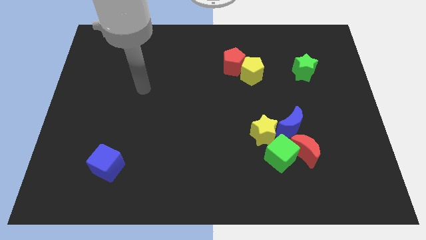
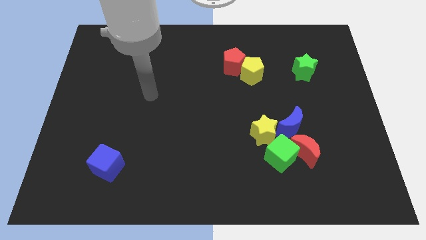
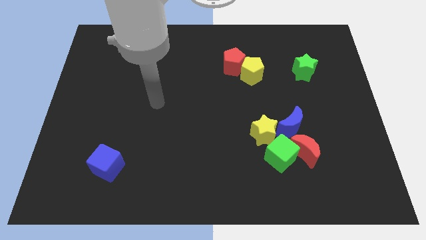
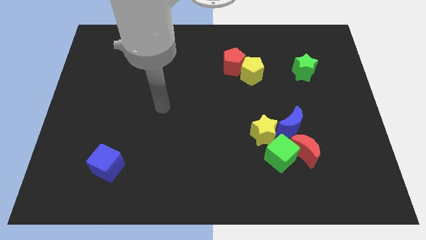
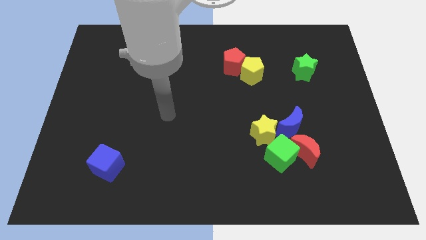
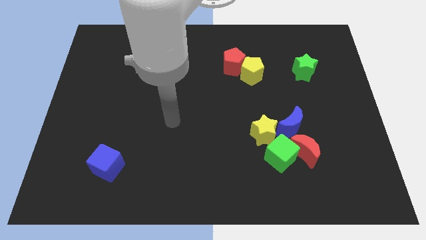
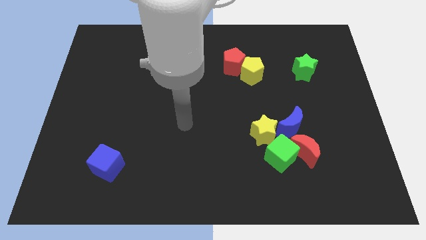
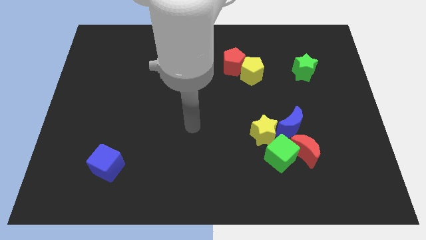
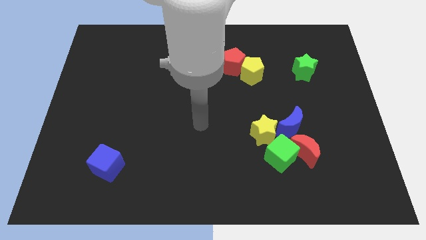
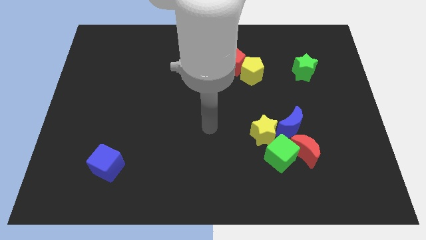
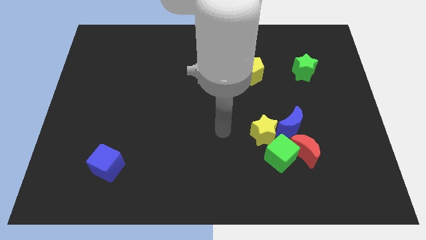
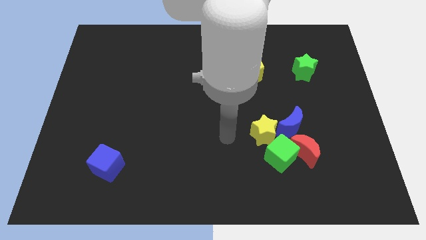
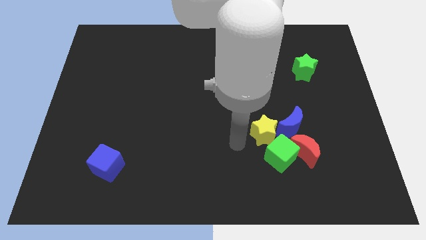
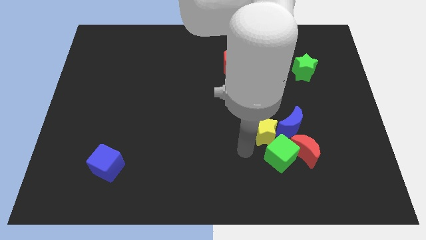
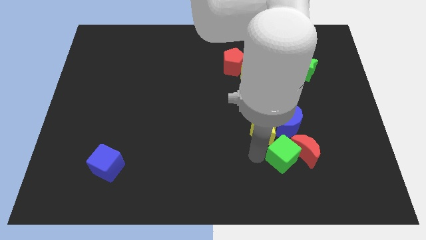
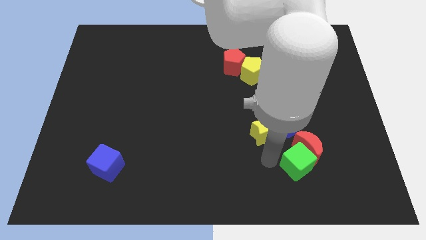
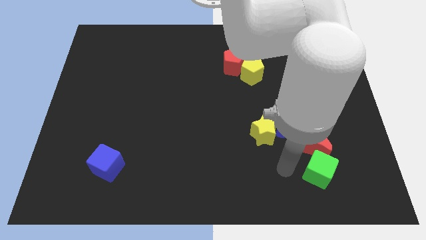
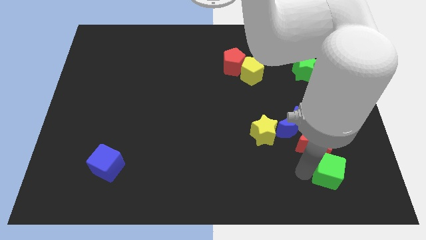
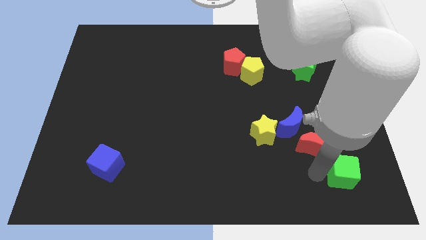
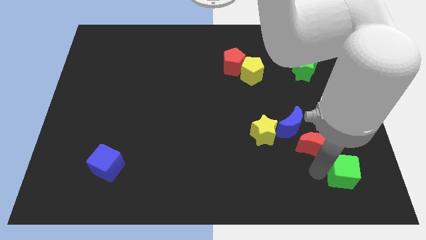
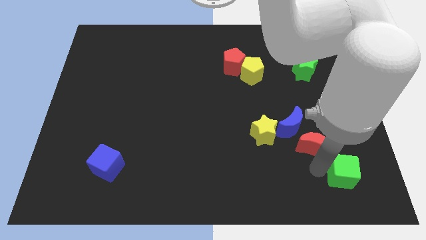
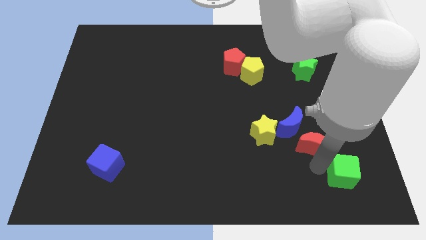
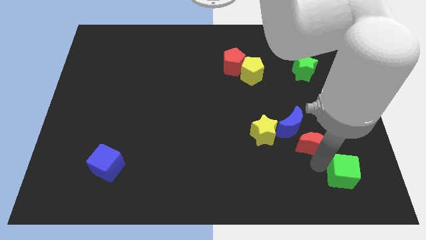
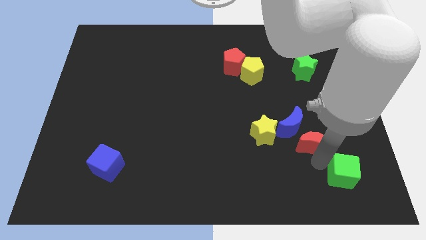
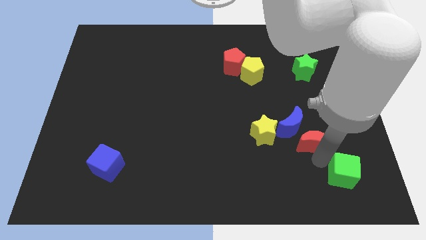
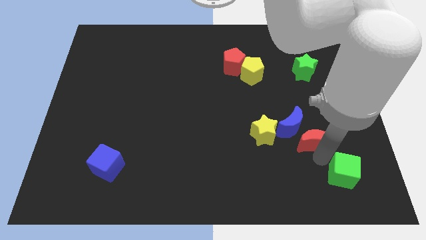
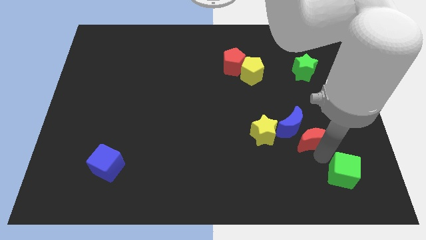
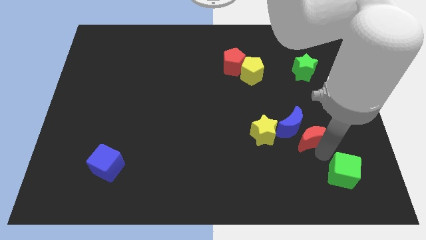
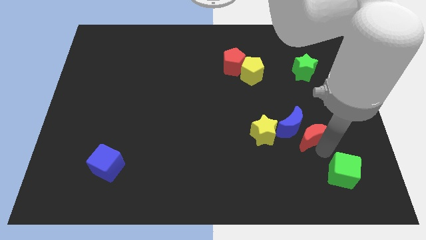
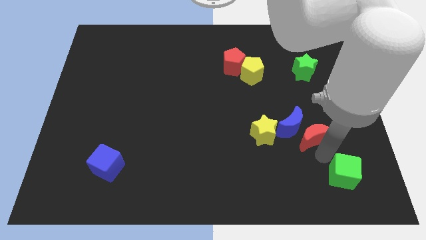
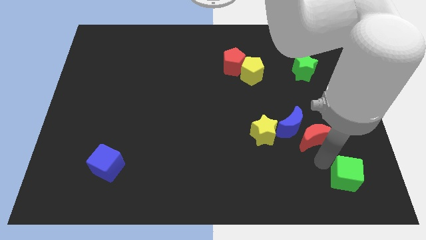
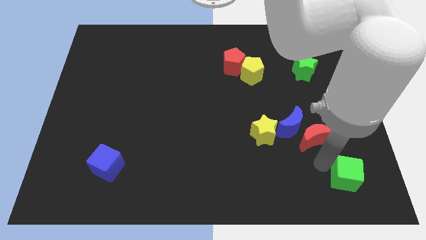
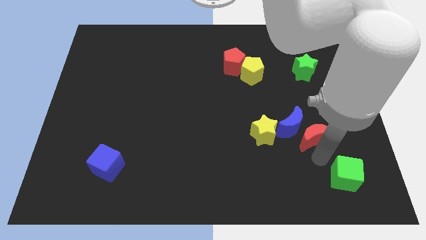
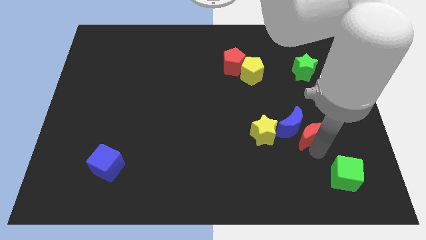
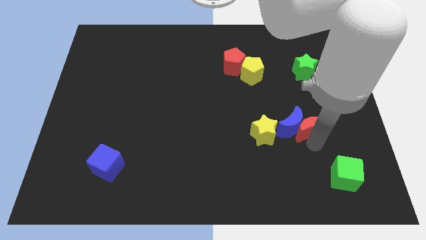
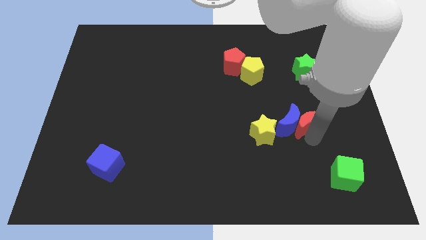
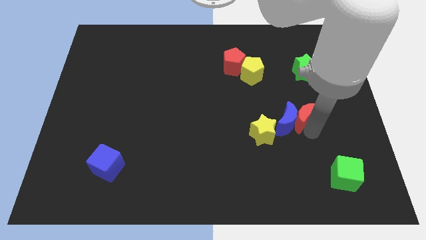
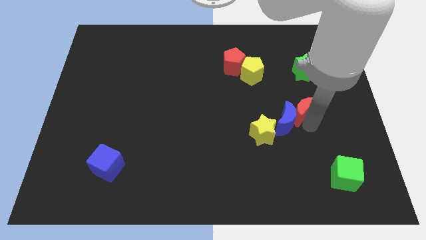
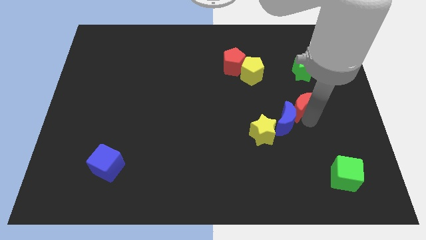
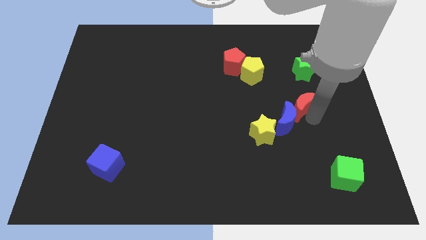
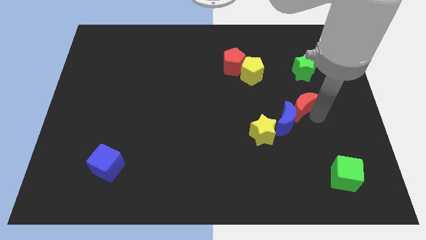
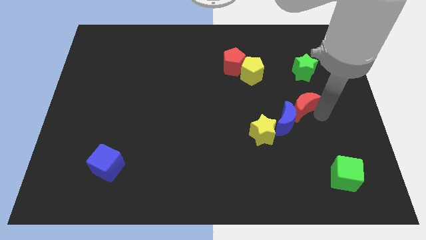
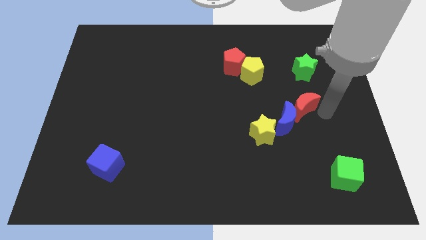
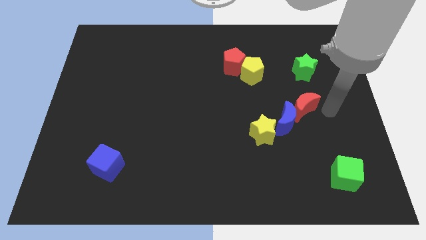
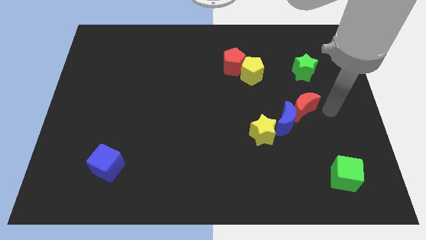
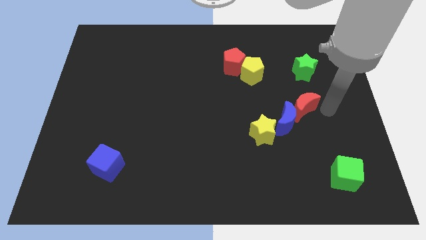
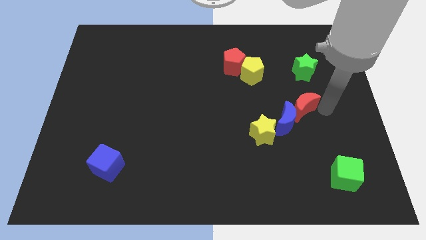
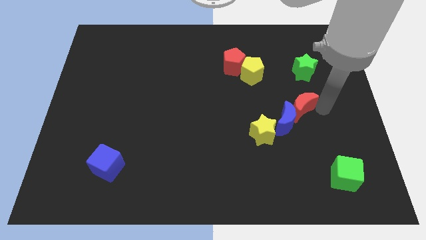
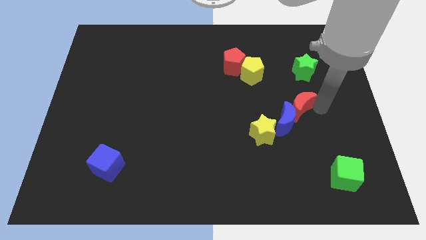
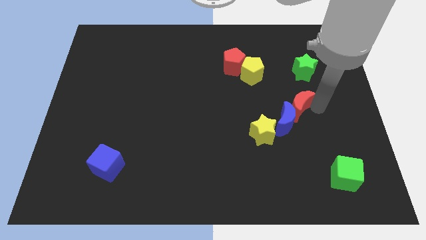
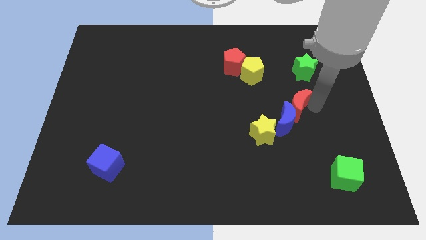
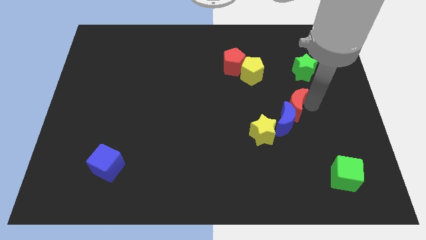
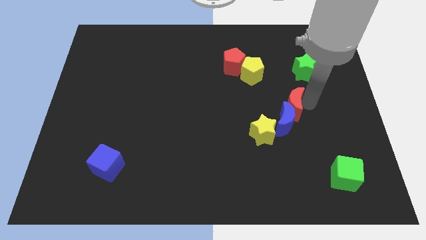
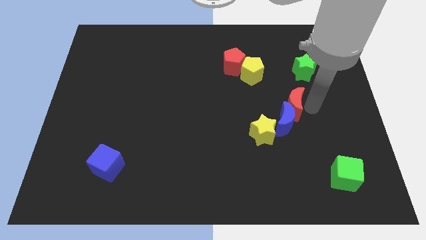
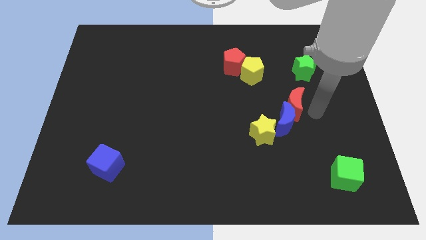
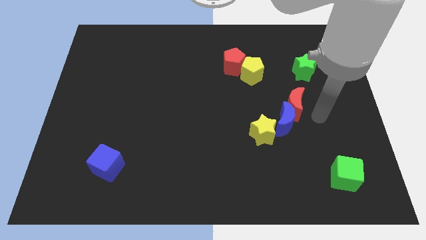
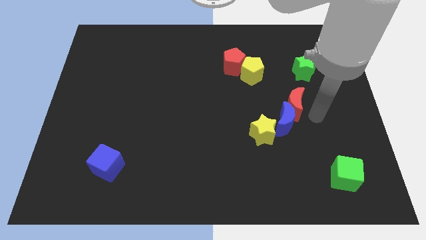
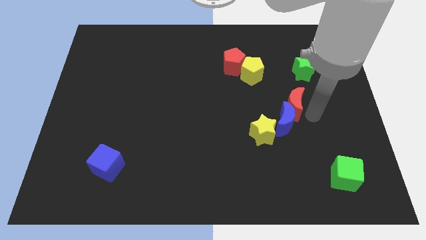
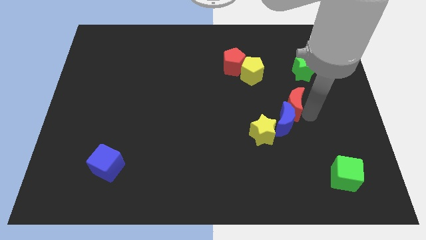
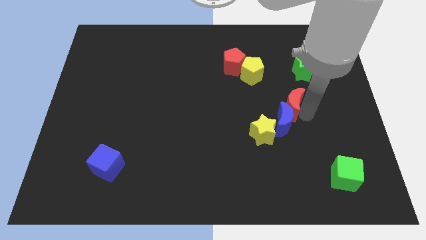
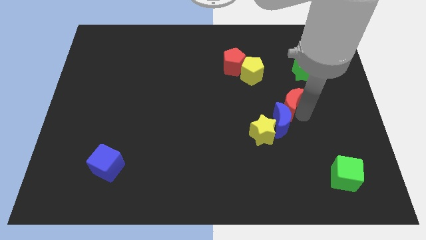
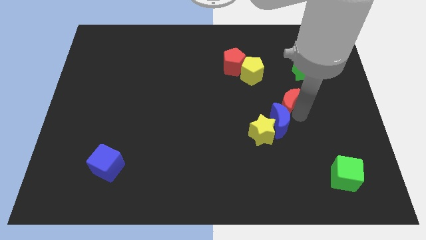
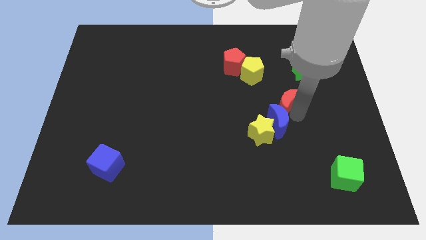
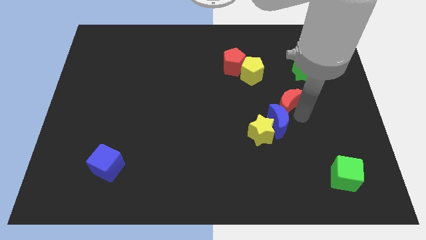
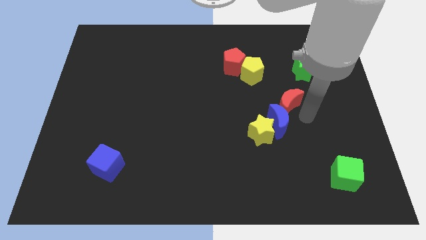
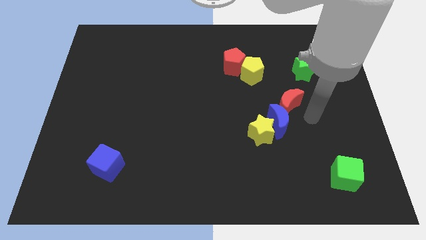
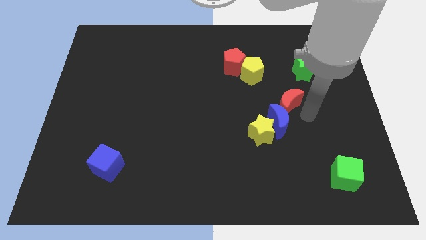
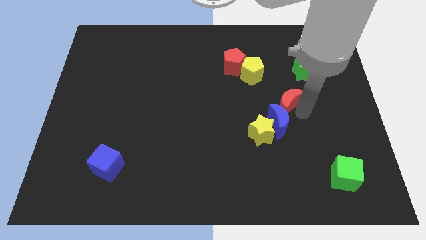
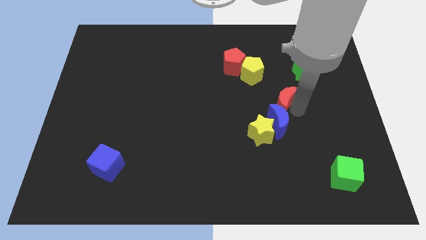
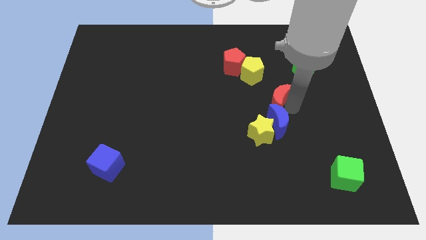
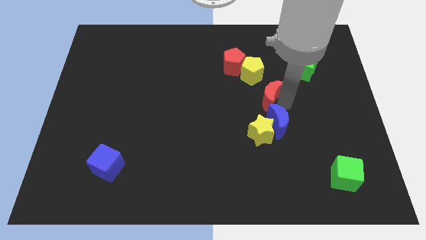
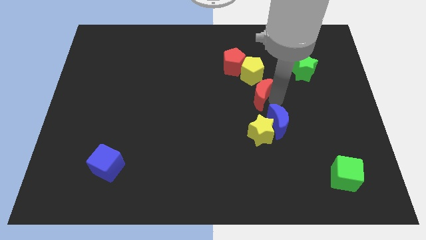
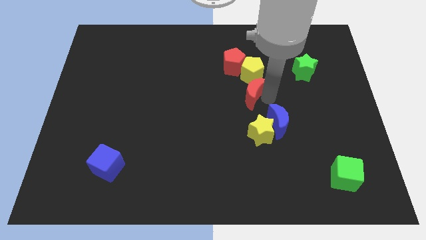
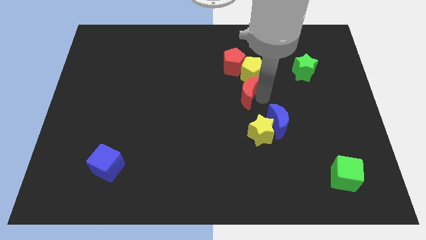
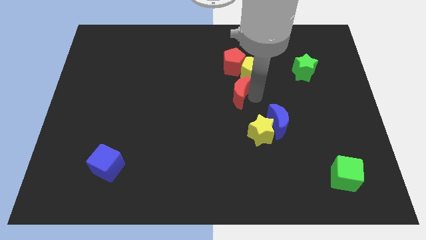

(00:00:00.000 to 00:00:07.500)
push the red moon up and then to the left

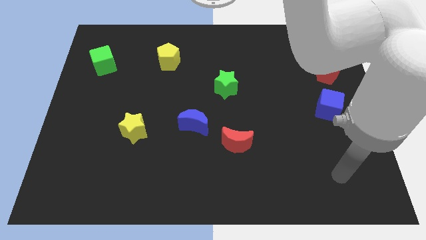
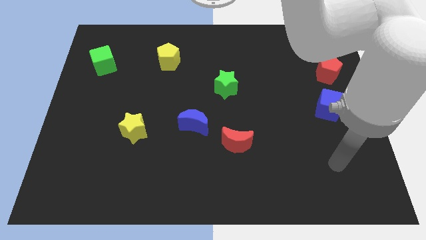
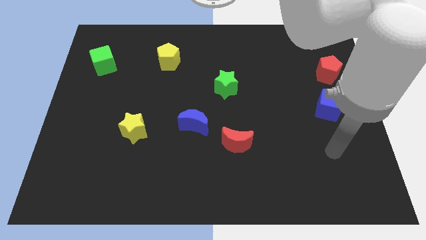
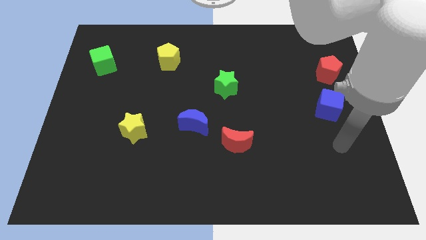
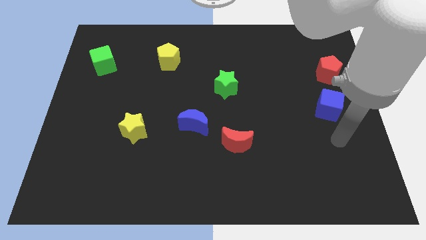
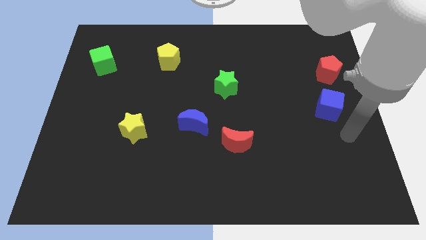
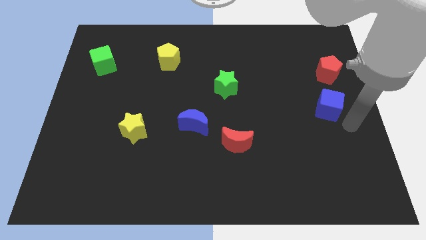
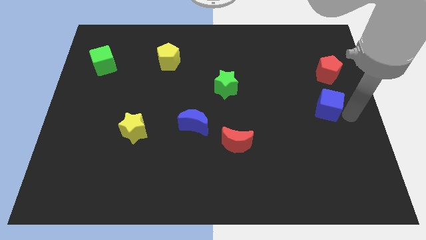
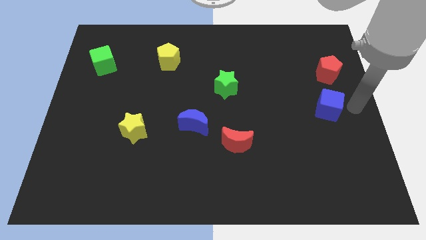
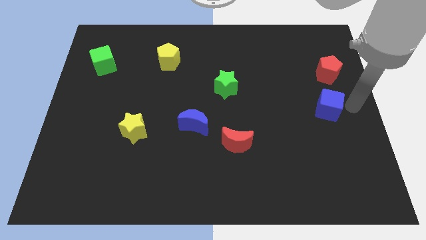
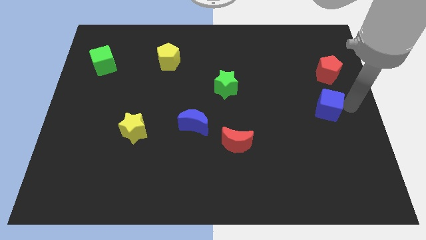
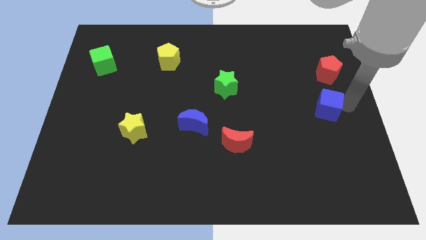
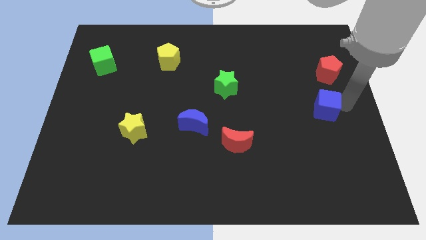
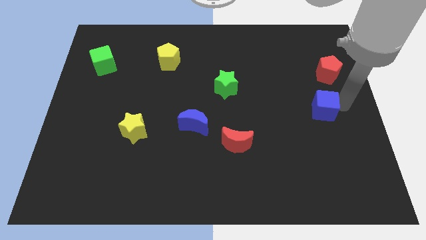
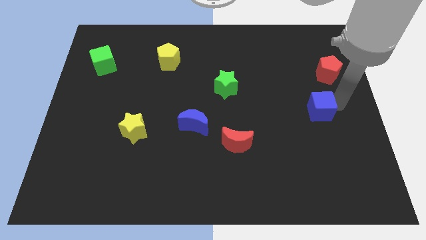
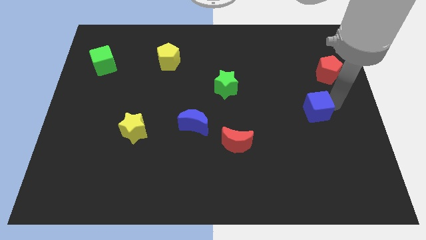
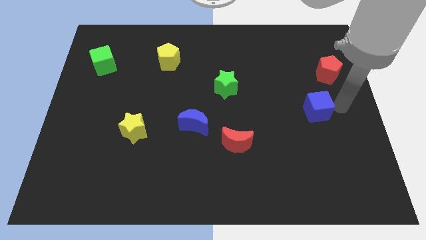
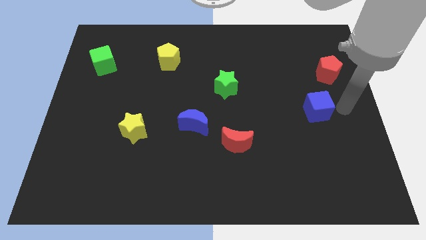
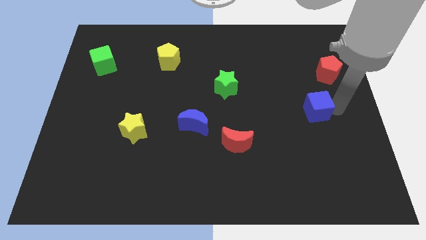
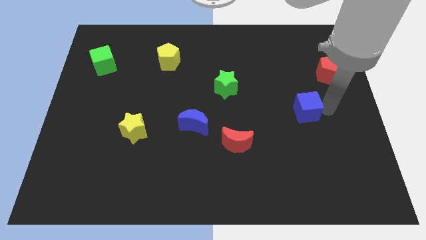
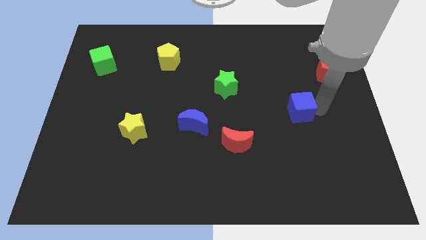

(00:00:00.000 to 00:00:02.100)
slightly slide the blue cube to the left
